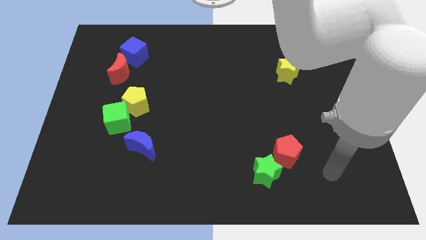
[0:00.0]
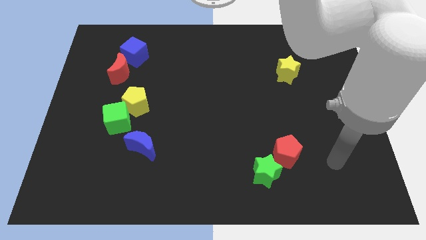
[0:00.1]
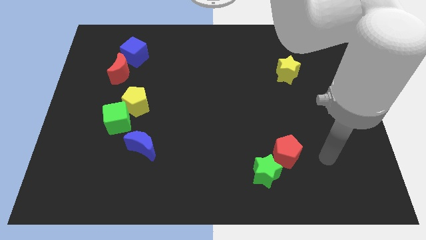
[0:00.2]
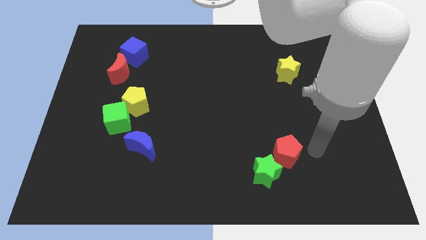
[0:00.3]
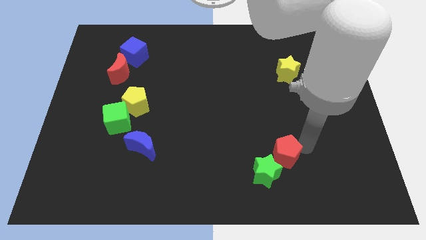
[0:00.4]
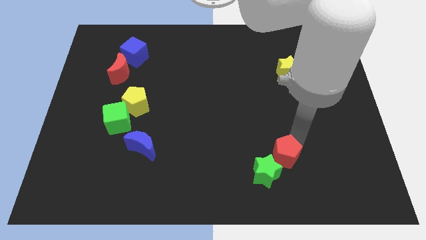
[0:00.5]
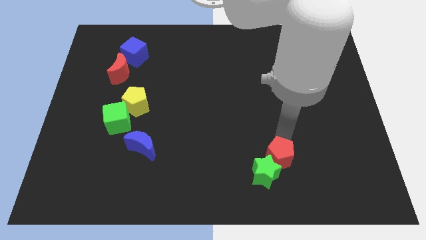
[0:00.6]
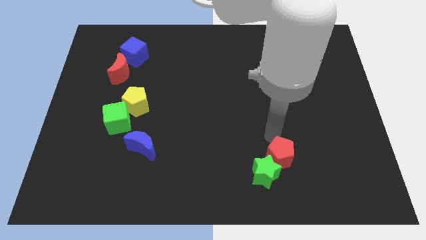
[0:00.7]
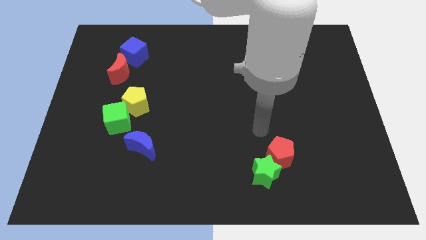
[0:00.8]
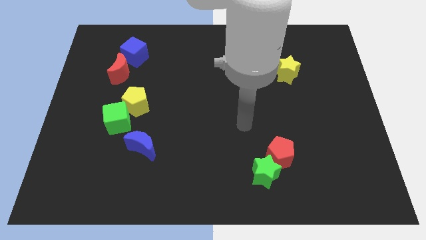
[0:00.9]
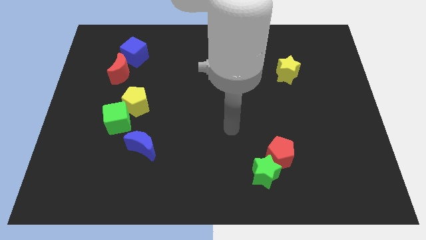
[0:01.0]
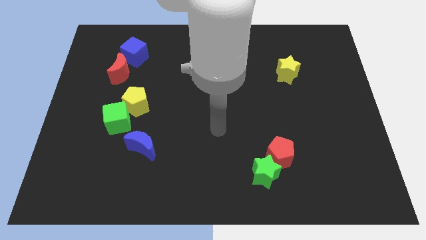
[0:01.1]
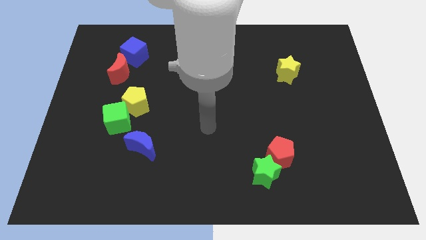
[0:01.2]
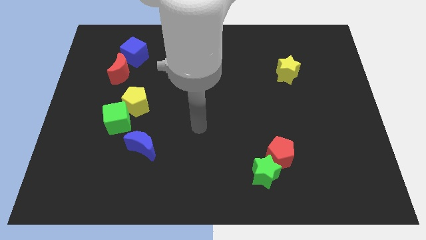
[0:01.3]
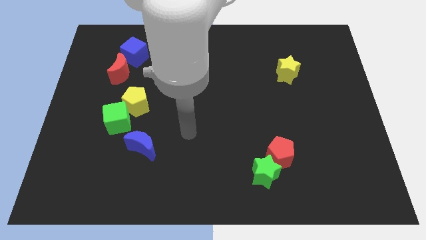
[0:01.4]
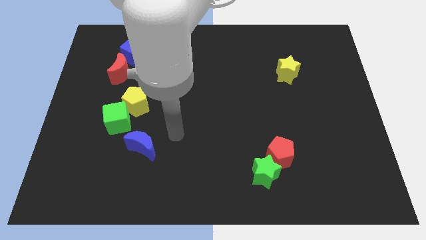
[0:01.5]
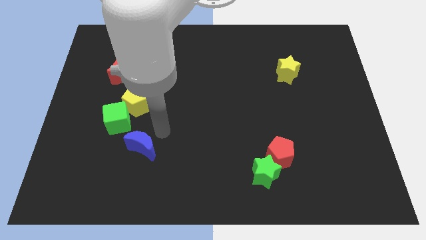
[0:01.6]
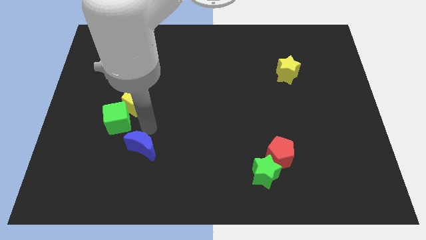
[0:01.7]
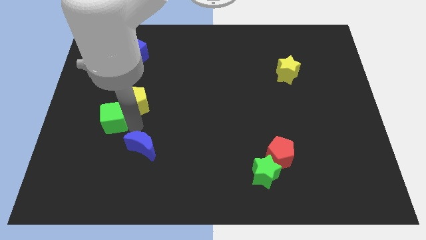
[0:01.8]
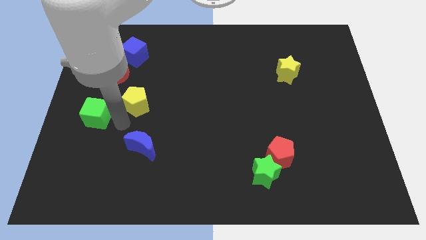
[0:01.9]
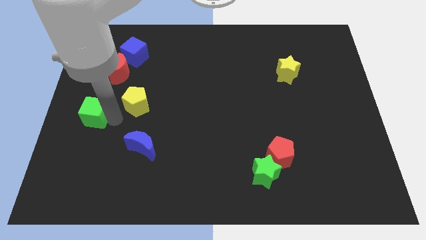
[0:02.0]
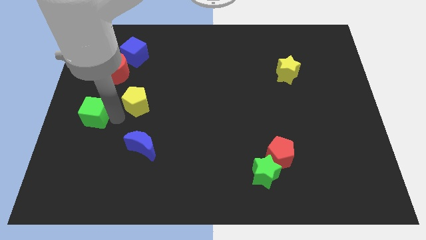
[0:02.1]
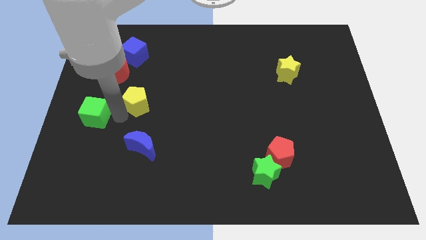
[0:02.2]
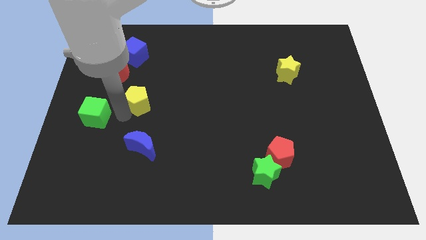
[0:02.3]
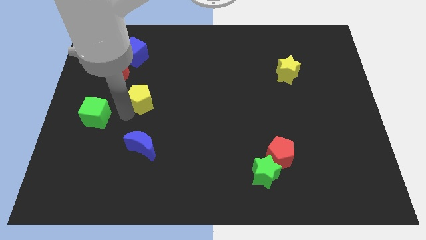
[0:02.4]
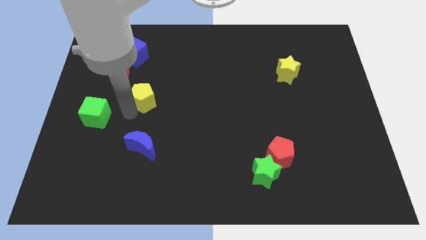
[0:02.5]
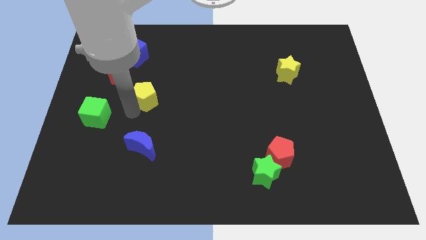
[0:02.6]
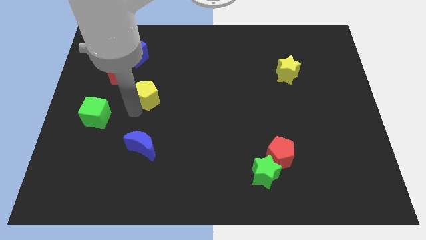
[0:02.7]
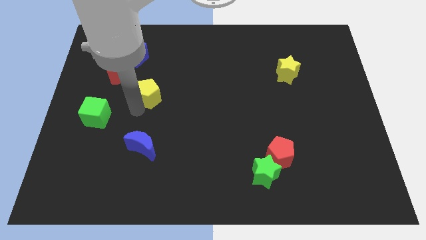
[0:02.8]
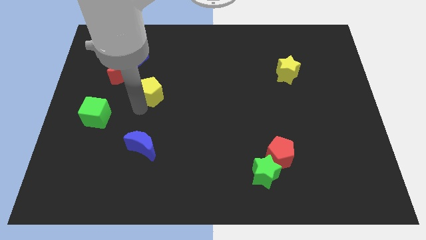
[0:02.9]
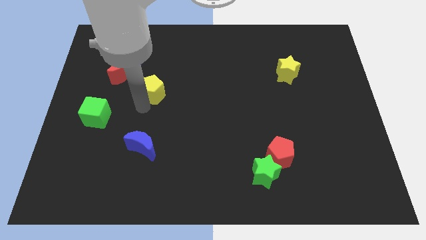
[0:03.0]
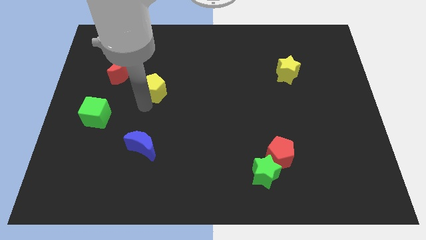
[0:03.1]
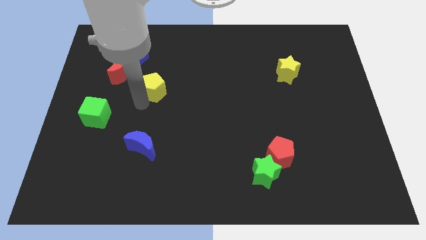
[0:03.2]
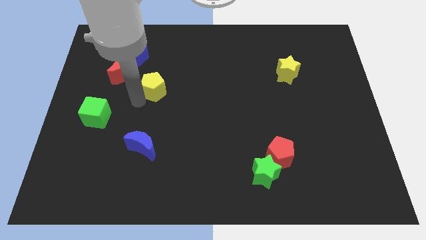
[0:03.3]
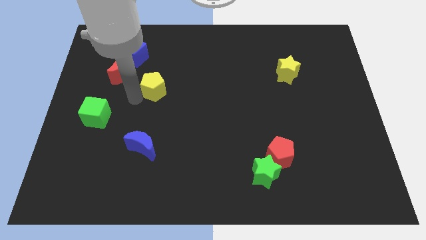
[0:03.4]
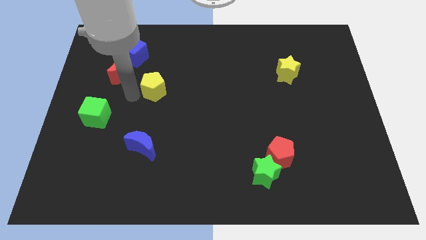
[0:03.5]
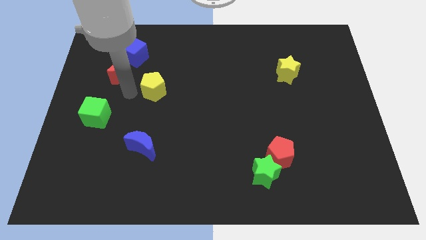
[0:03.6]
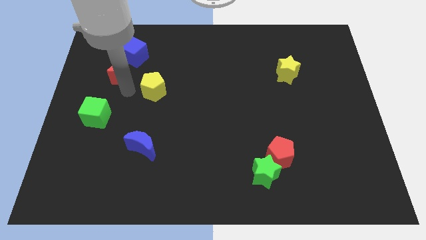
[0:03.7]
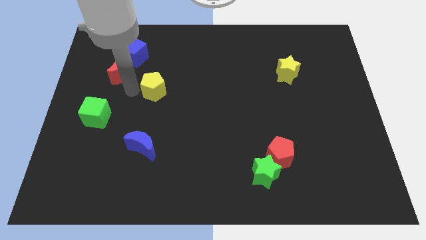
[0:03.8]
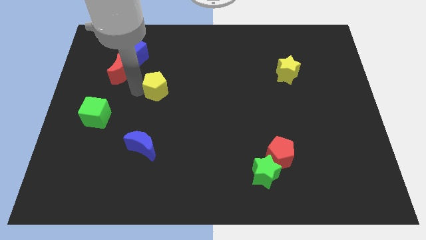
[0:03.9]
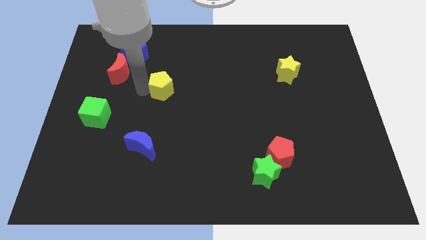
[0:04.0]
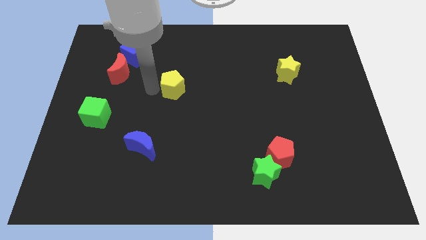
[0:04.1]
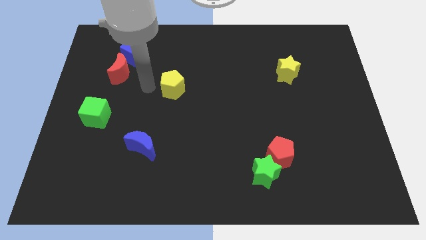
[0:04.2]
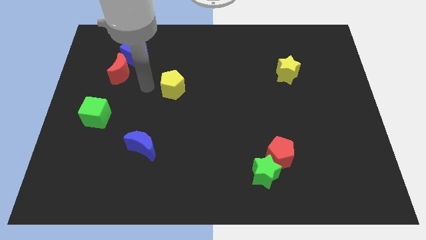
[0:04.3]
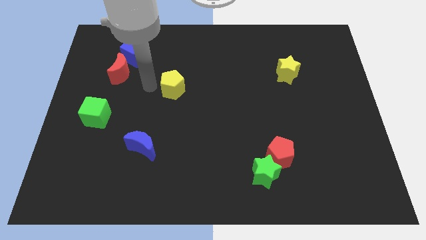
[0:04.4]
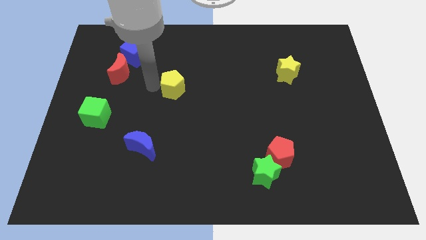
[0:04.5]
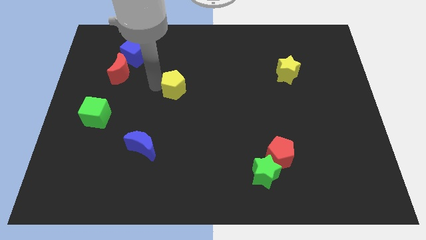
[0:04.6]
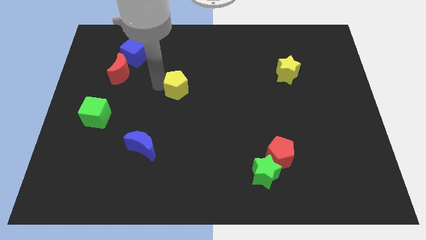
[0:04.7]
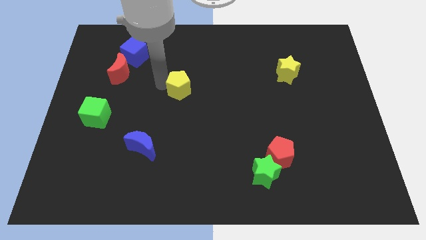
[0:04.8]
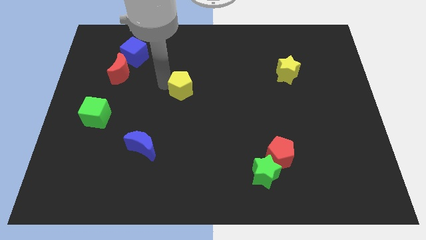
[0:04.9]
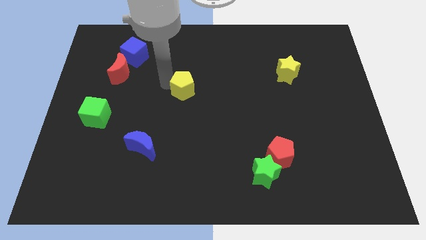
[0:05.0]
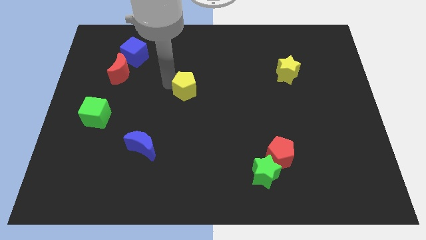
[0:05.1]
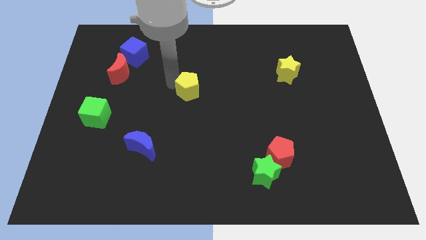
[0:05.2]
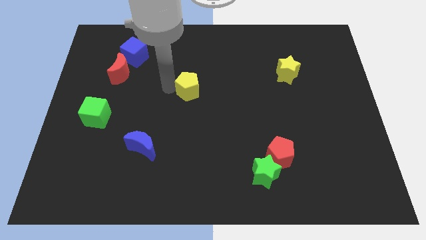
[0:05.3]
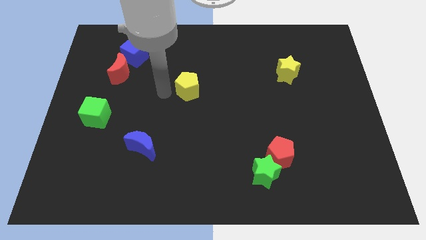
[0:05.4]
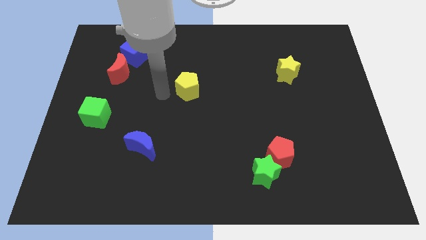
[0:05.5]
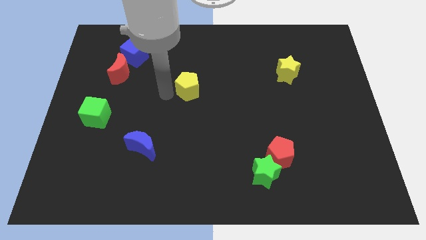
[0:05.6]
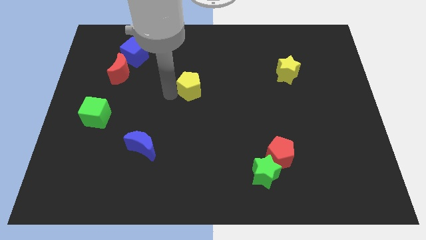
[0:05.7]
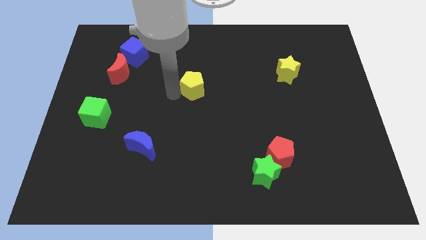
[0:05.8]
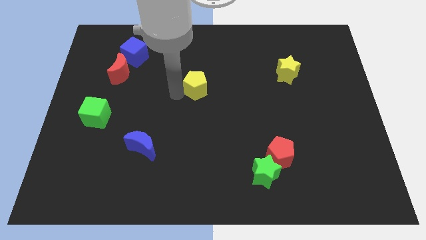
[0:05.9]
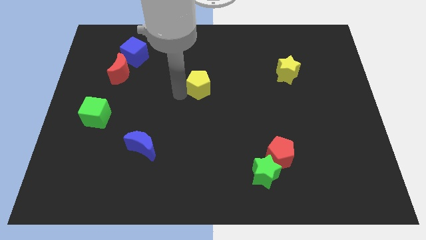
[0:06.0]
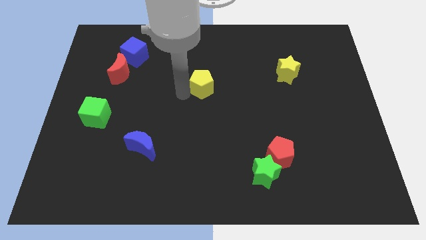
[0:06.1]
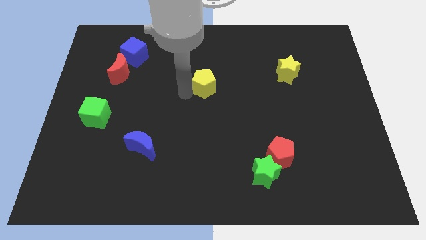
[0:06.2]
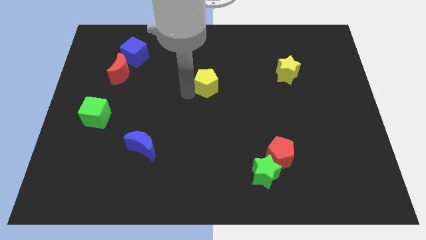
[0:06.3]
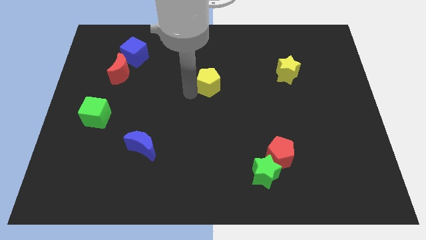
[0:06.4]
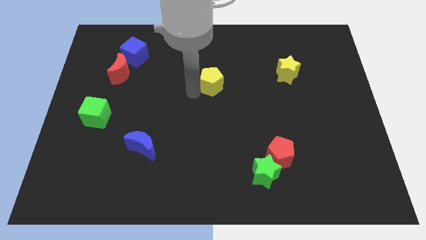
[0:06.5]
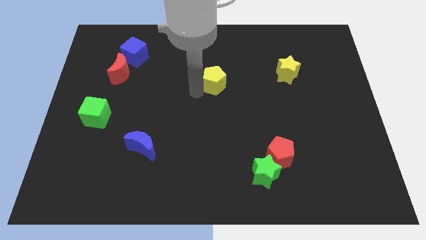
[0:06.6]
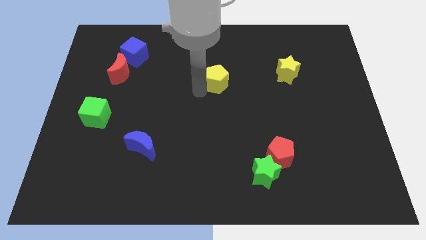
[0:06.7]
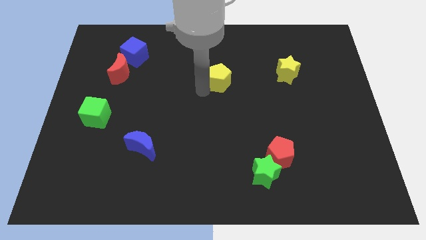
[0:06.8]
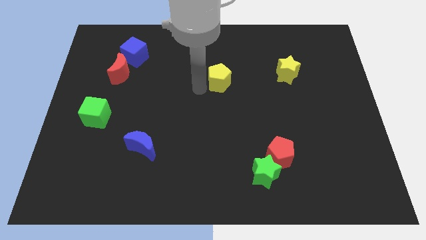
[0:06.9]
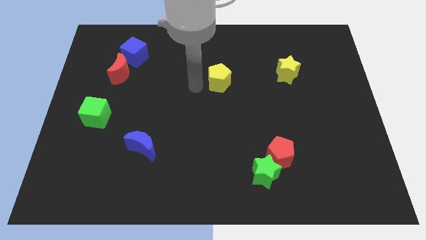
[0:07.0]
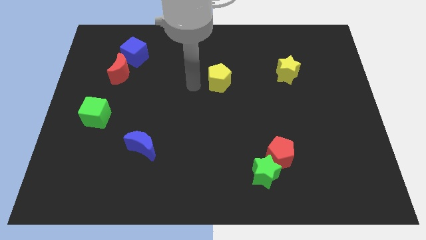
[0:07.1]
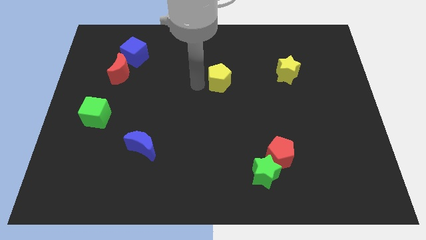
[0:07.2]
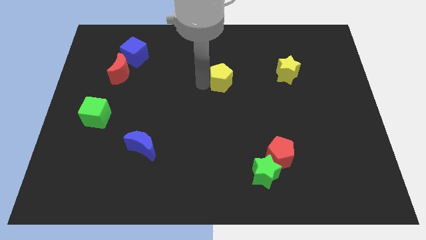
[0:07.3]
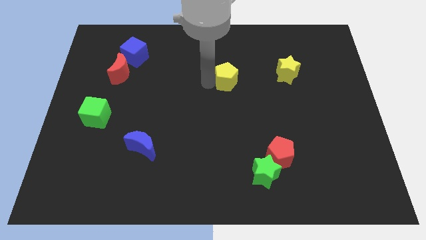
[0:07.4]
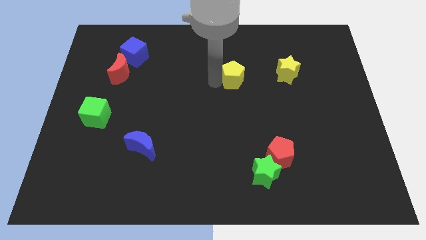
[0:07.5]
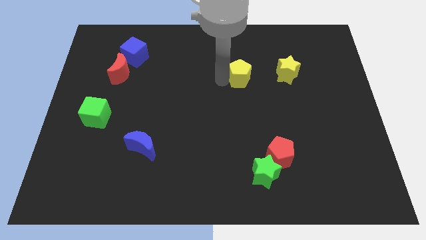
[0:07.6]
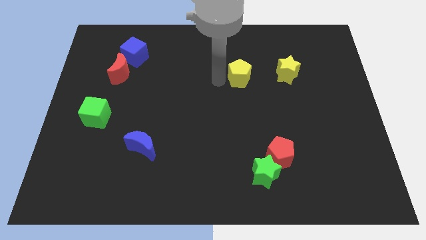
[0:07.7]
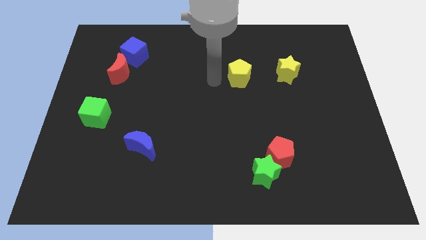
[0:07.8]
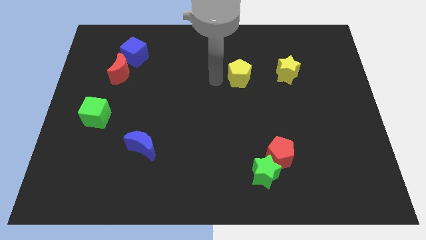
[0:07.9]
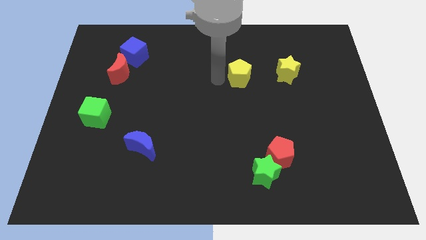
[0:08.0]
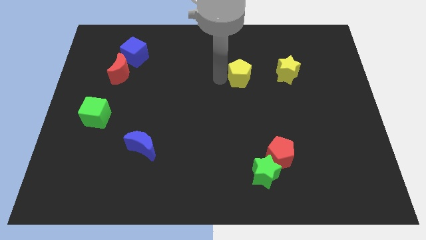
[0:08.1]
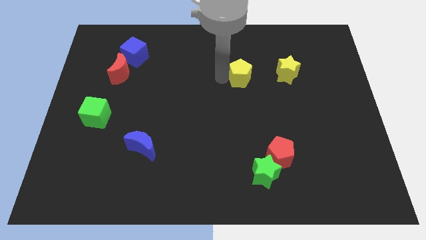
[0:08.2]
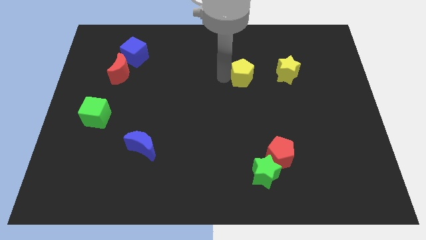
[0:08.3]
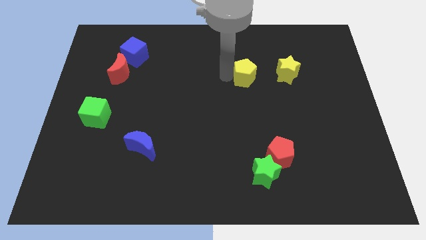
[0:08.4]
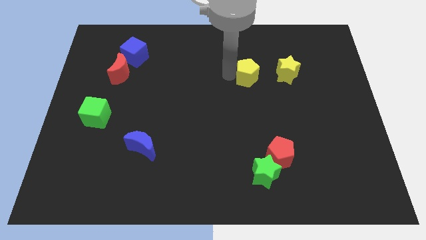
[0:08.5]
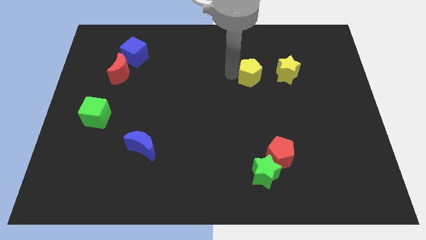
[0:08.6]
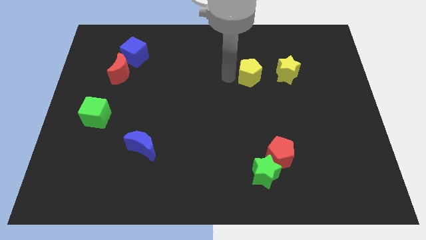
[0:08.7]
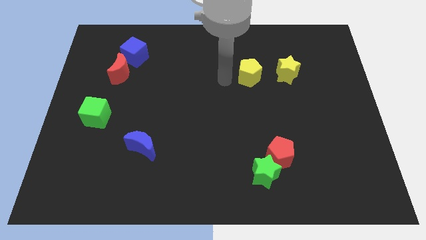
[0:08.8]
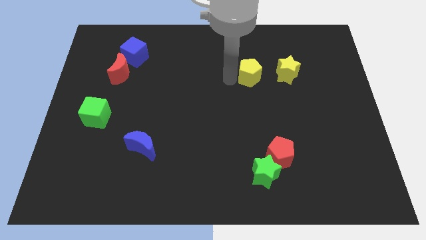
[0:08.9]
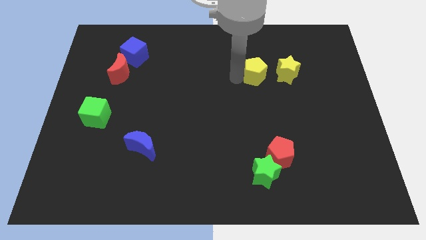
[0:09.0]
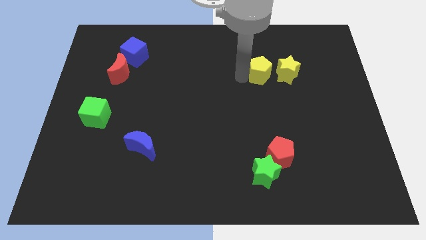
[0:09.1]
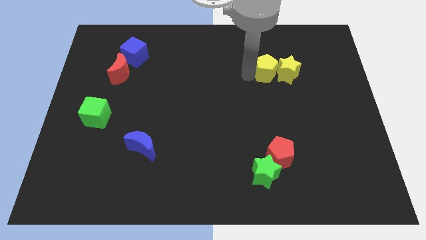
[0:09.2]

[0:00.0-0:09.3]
move the yellow pentagon close to the yellow star
